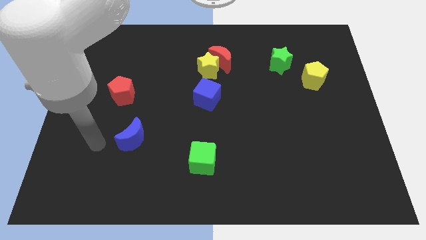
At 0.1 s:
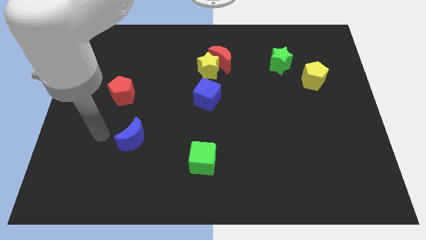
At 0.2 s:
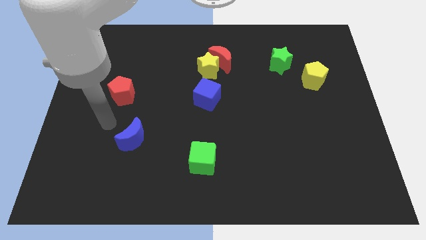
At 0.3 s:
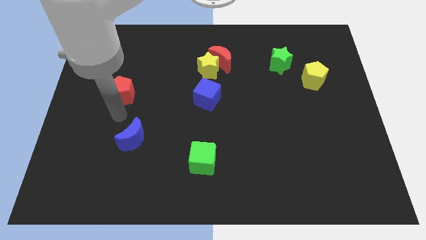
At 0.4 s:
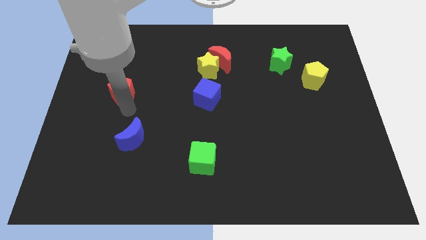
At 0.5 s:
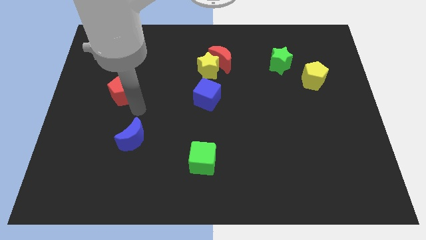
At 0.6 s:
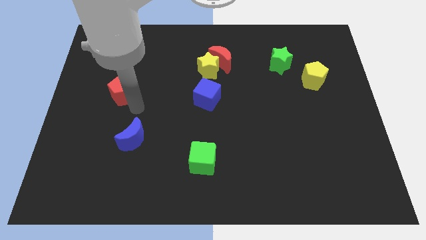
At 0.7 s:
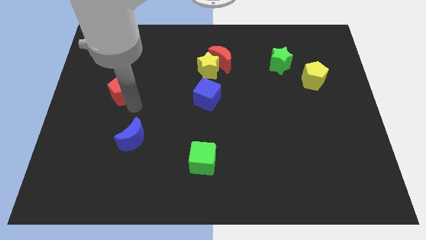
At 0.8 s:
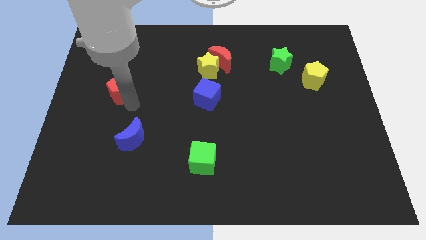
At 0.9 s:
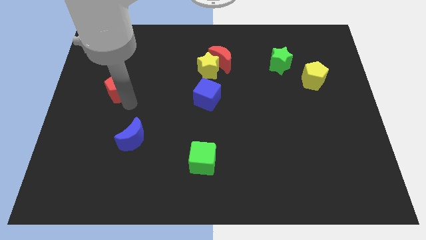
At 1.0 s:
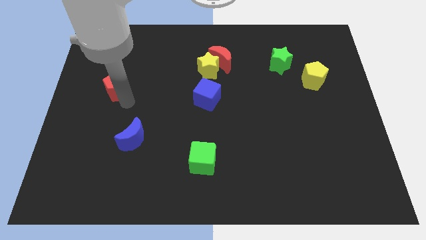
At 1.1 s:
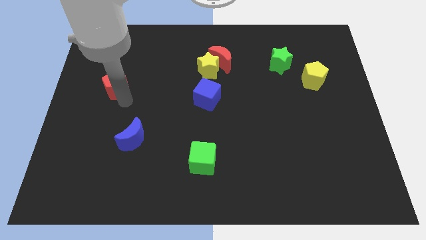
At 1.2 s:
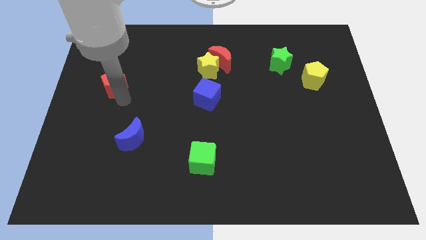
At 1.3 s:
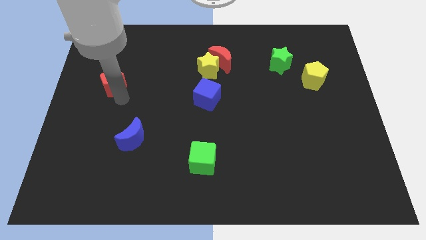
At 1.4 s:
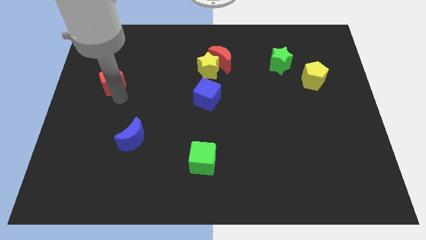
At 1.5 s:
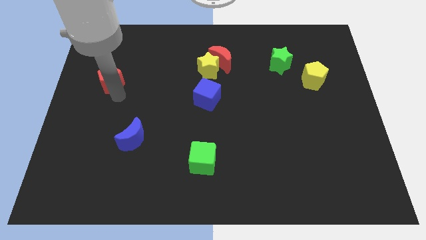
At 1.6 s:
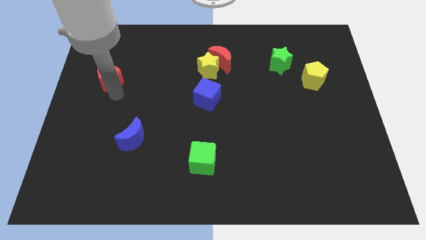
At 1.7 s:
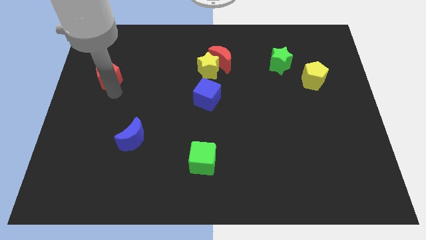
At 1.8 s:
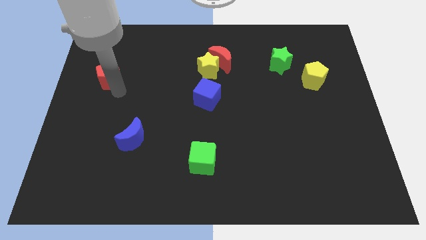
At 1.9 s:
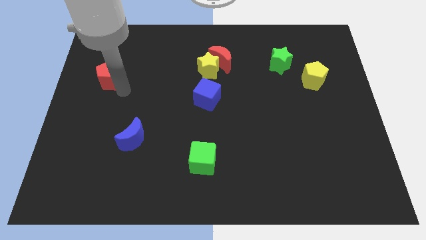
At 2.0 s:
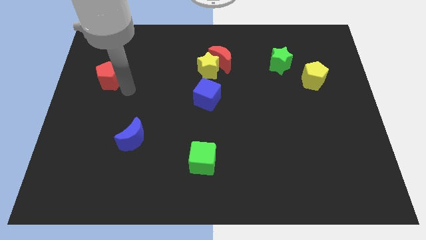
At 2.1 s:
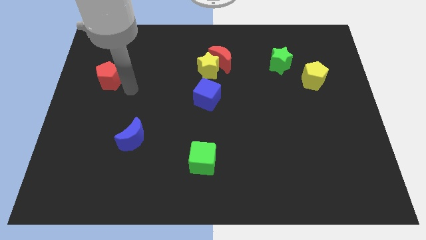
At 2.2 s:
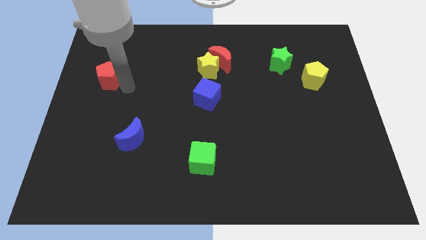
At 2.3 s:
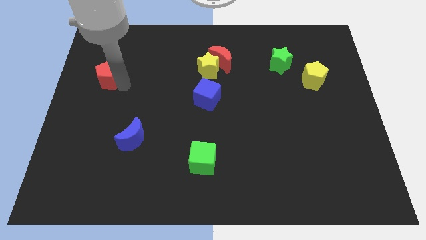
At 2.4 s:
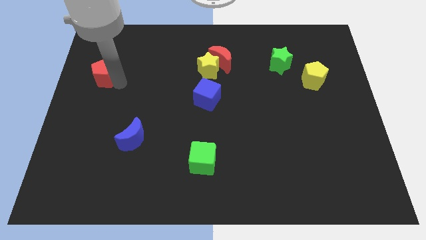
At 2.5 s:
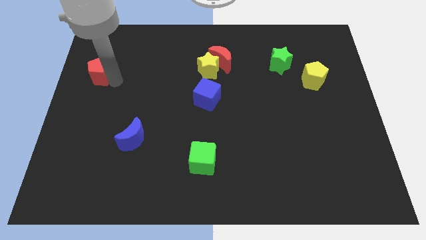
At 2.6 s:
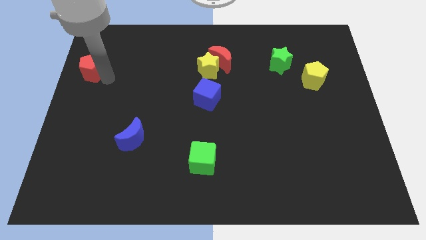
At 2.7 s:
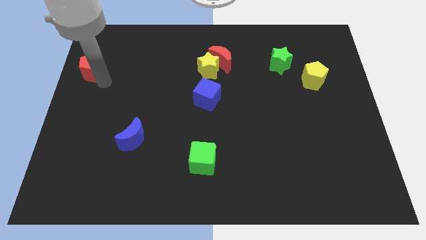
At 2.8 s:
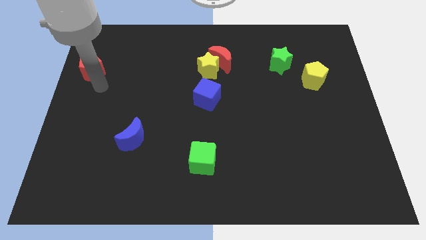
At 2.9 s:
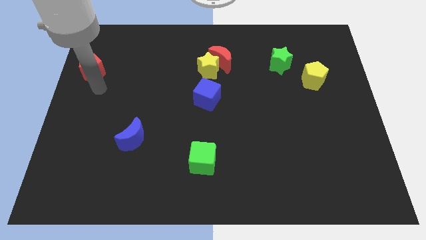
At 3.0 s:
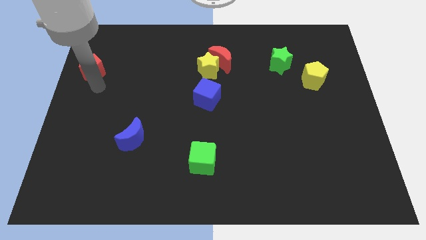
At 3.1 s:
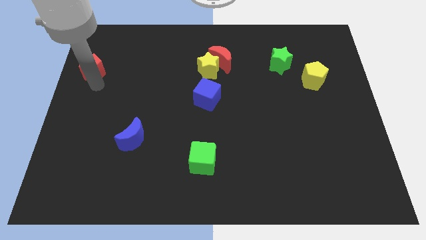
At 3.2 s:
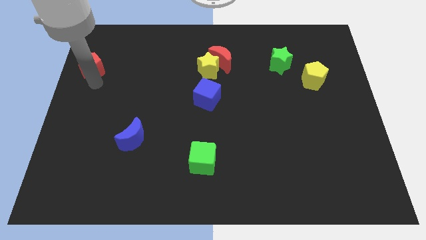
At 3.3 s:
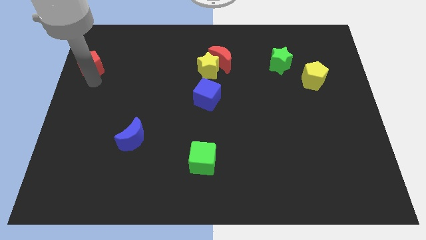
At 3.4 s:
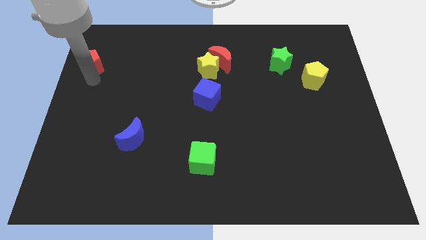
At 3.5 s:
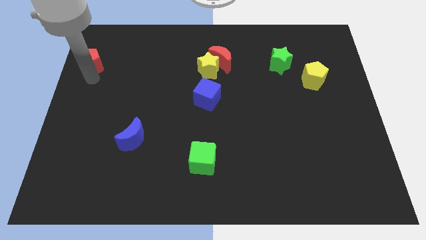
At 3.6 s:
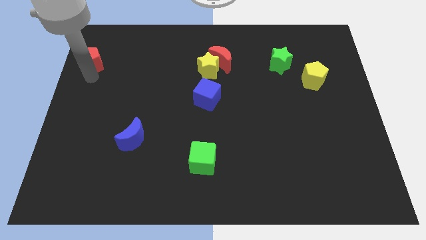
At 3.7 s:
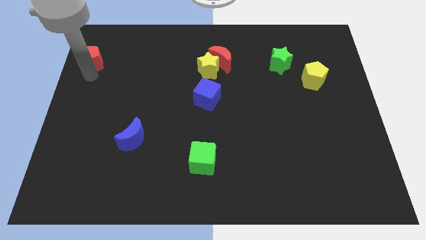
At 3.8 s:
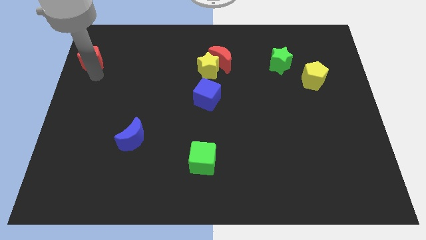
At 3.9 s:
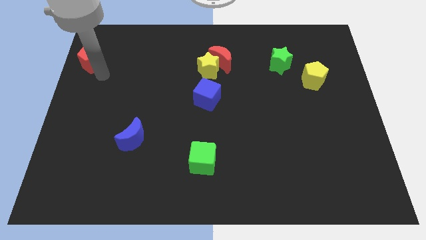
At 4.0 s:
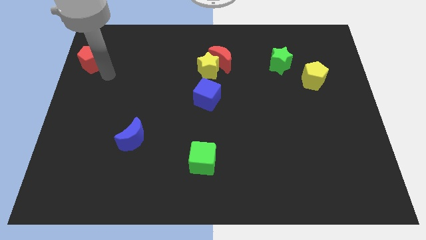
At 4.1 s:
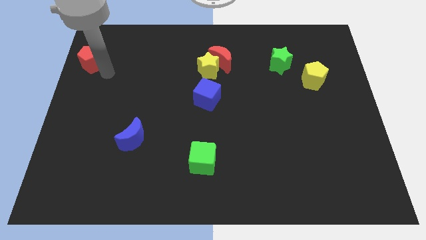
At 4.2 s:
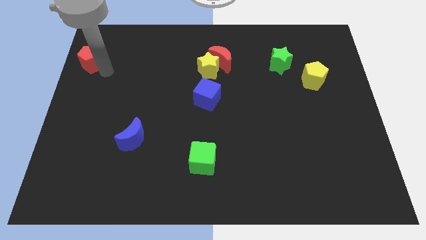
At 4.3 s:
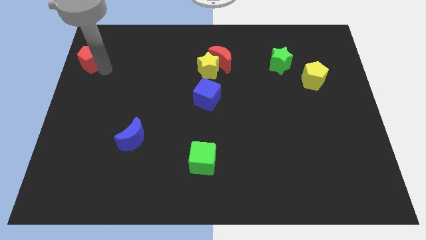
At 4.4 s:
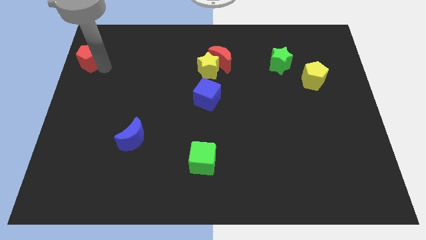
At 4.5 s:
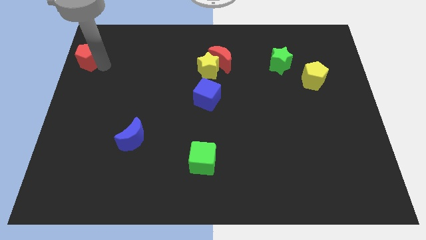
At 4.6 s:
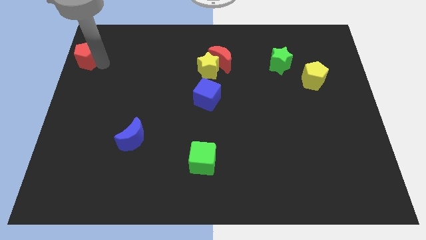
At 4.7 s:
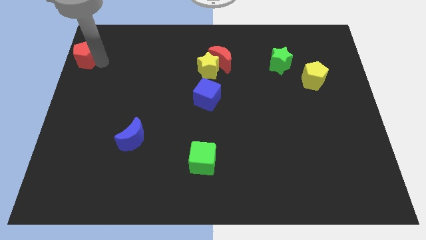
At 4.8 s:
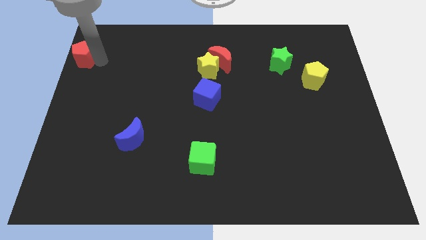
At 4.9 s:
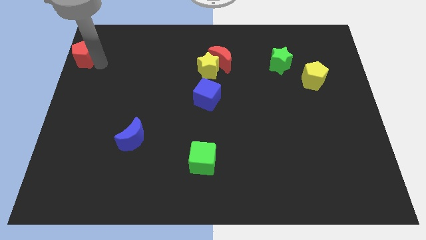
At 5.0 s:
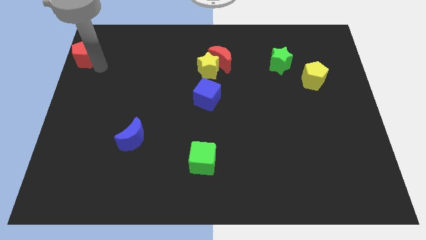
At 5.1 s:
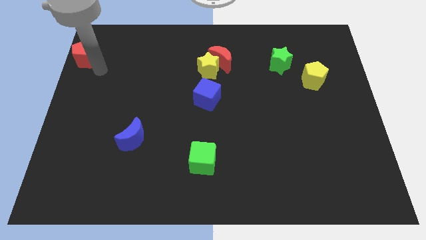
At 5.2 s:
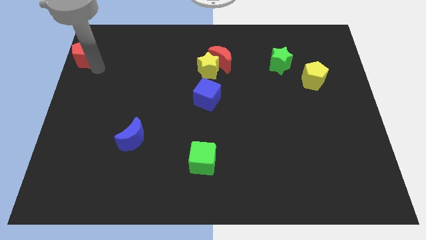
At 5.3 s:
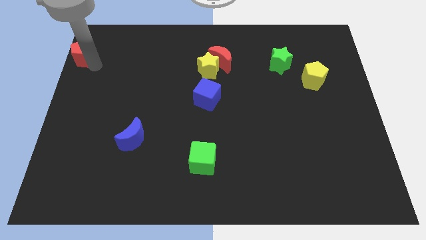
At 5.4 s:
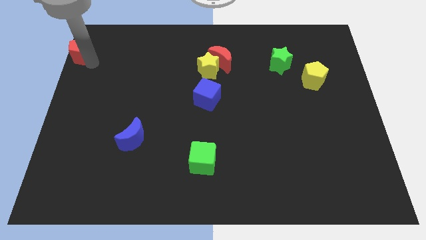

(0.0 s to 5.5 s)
slide the red pentagon to the top left

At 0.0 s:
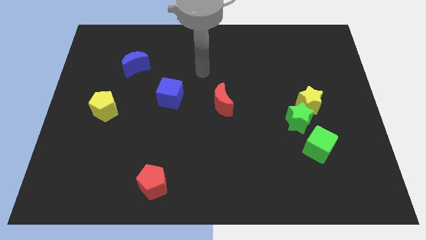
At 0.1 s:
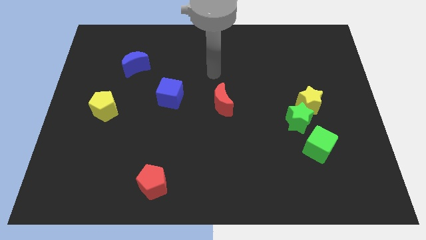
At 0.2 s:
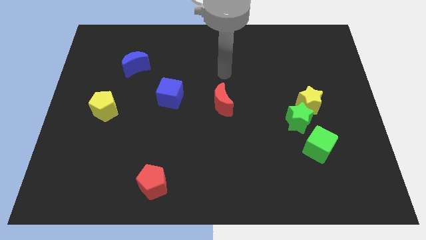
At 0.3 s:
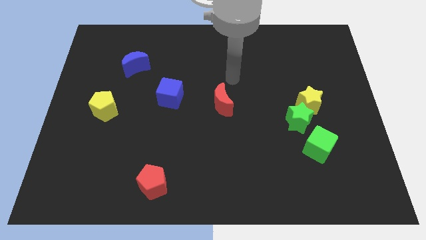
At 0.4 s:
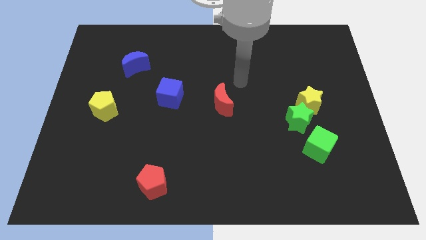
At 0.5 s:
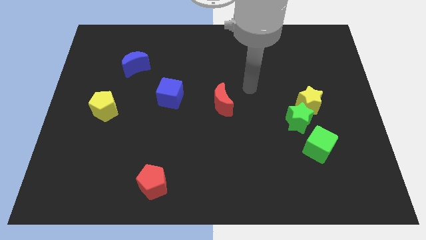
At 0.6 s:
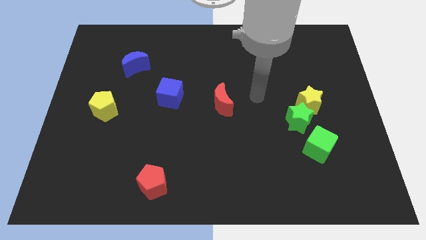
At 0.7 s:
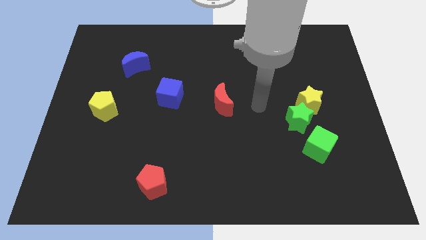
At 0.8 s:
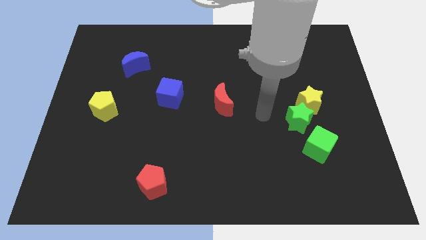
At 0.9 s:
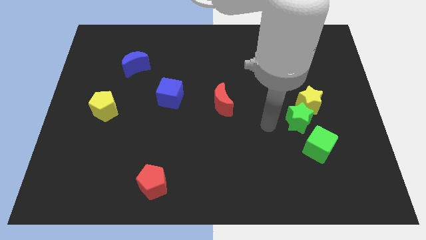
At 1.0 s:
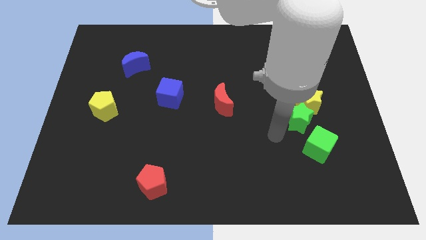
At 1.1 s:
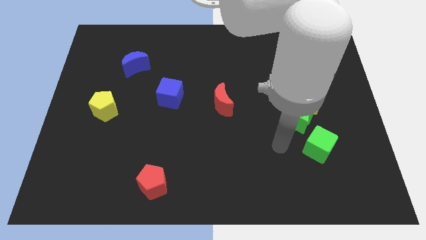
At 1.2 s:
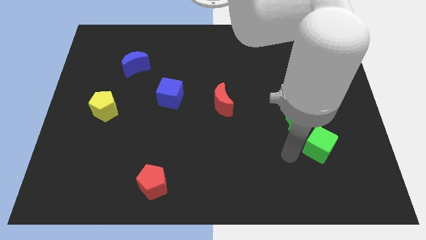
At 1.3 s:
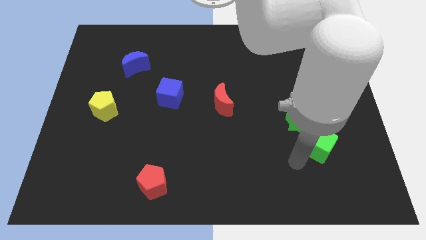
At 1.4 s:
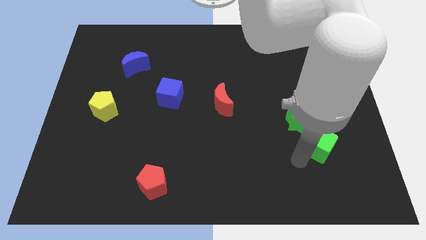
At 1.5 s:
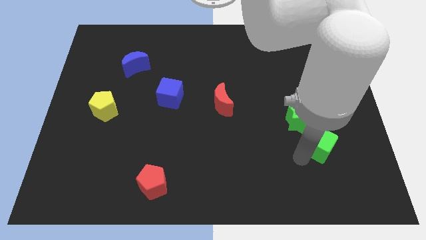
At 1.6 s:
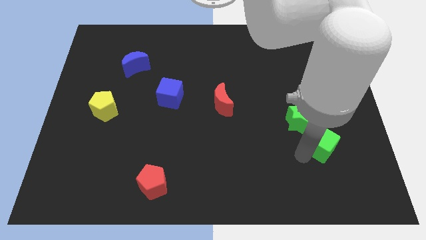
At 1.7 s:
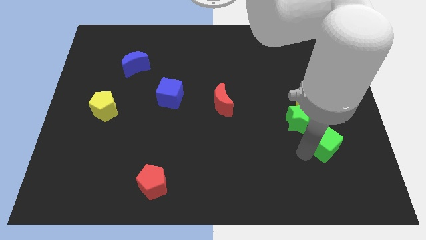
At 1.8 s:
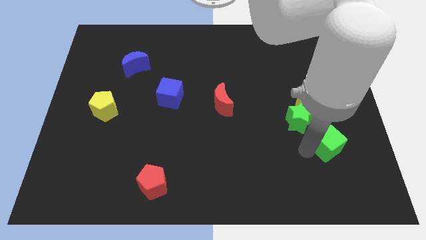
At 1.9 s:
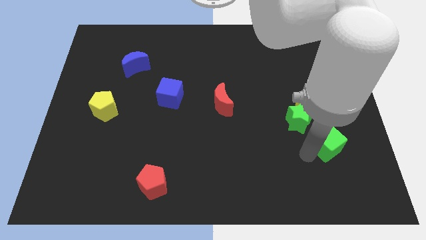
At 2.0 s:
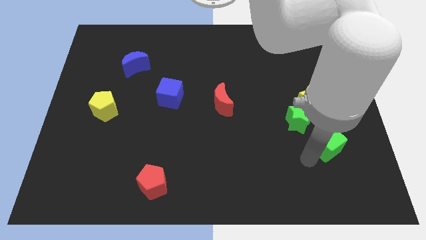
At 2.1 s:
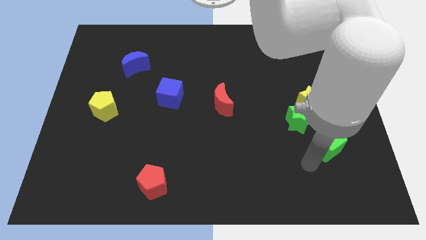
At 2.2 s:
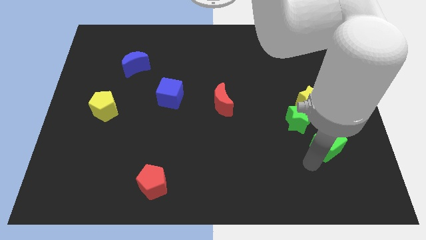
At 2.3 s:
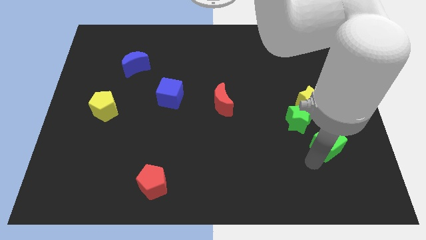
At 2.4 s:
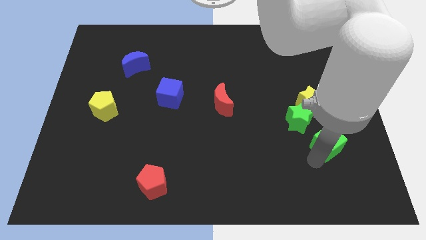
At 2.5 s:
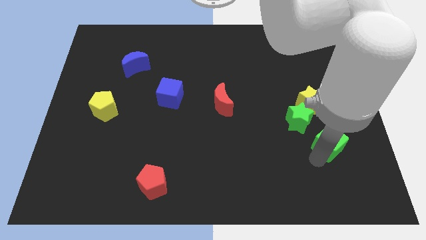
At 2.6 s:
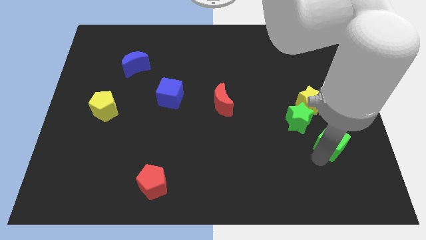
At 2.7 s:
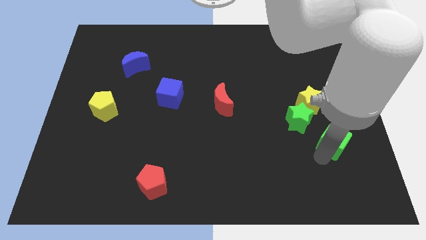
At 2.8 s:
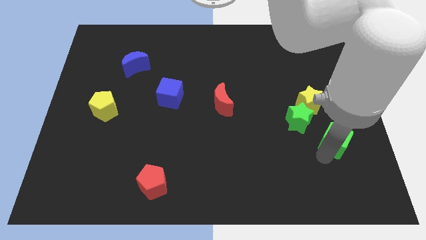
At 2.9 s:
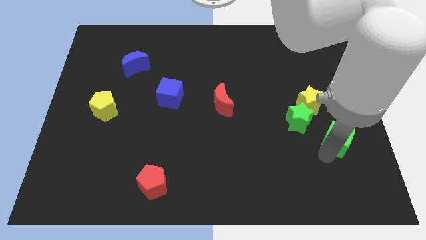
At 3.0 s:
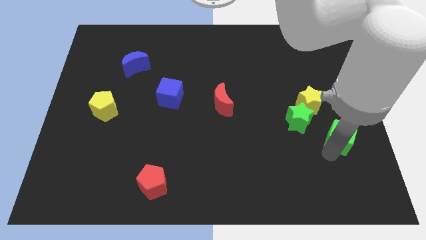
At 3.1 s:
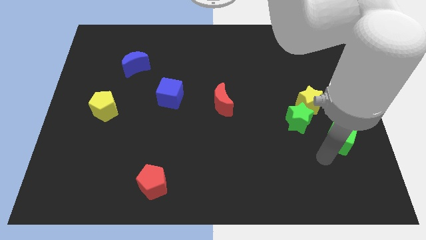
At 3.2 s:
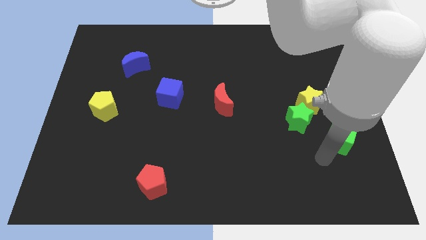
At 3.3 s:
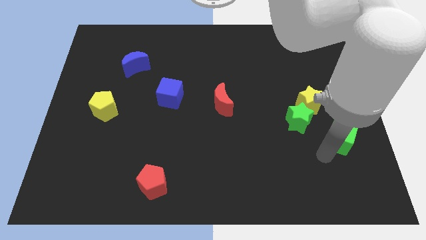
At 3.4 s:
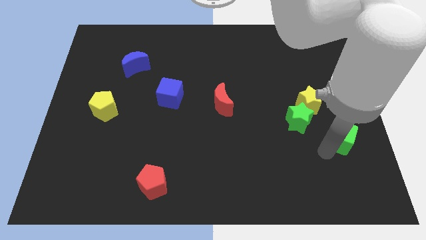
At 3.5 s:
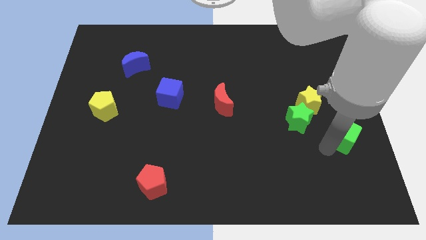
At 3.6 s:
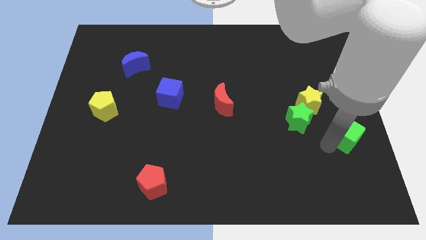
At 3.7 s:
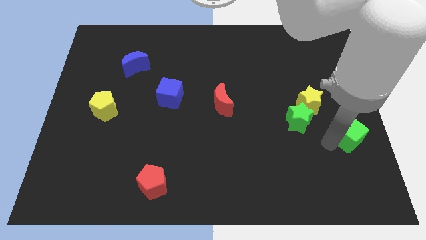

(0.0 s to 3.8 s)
move the green cube to the center right
